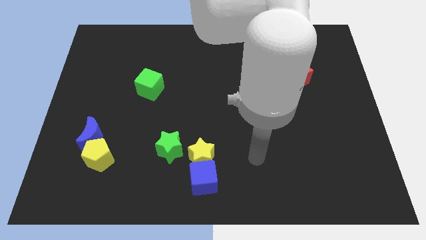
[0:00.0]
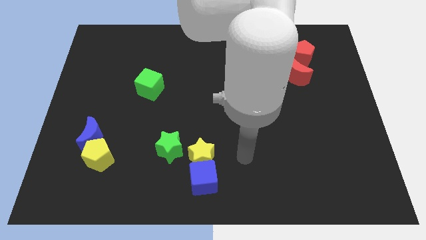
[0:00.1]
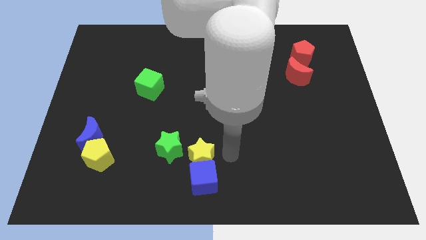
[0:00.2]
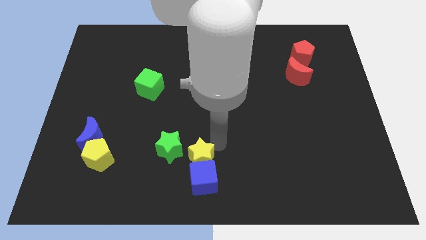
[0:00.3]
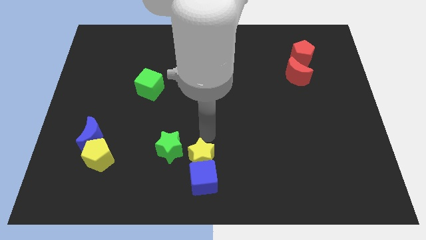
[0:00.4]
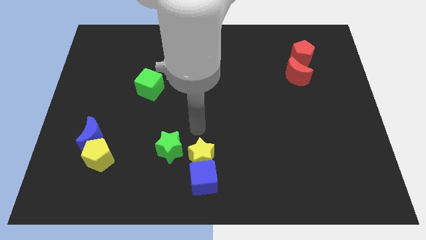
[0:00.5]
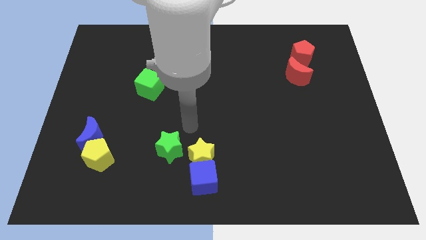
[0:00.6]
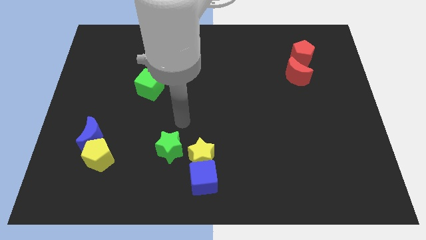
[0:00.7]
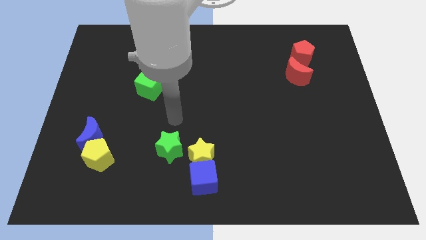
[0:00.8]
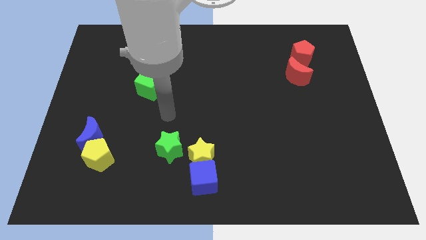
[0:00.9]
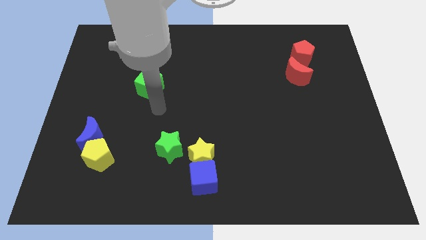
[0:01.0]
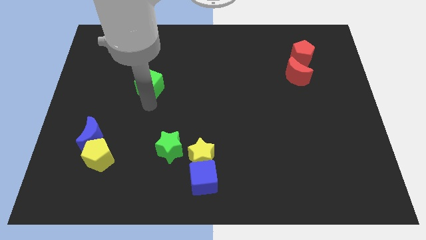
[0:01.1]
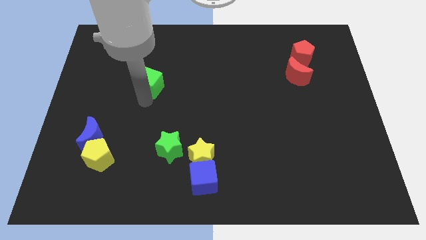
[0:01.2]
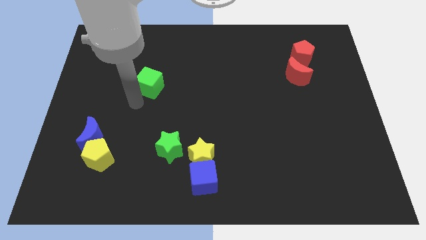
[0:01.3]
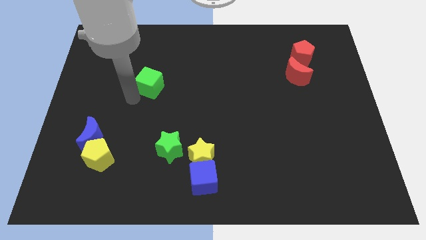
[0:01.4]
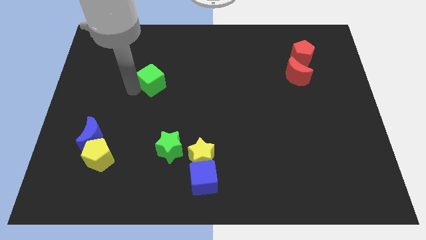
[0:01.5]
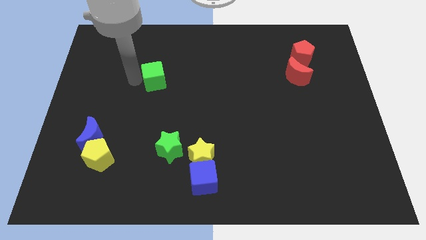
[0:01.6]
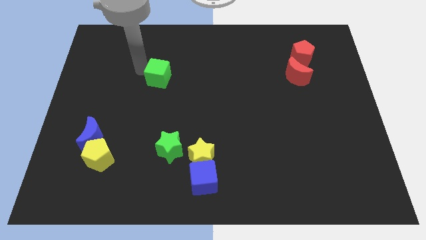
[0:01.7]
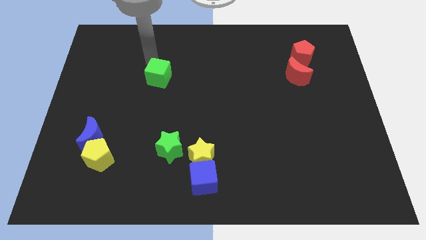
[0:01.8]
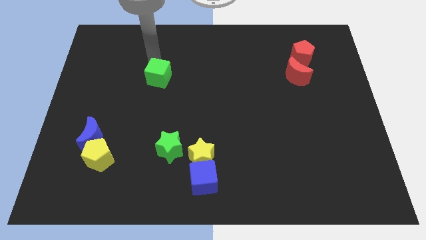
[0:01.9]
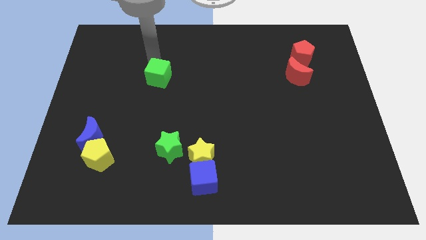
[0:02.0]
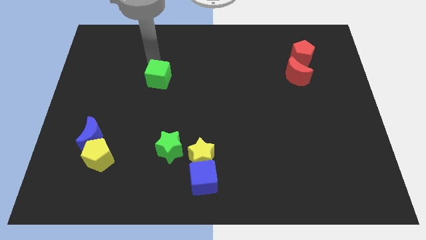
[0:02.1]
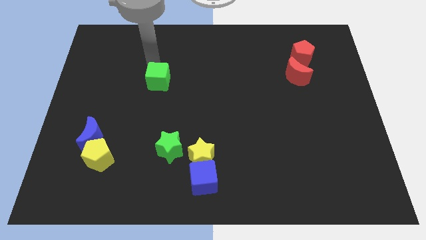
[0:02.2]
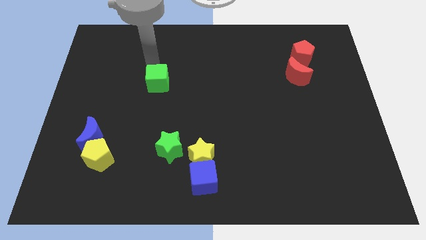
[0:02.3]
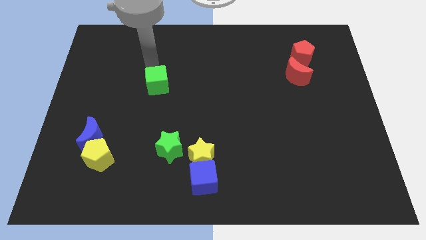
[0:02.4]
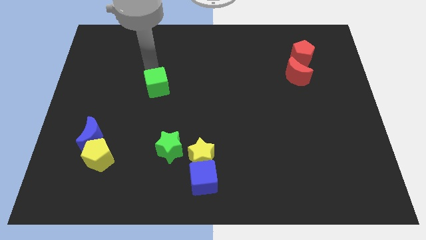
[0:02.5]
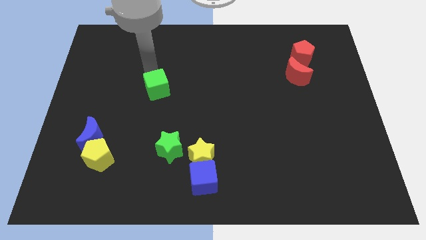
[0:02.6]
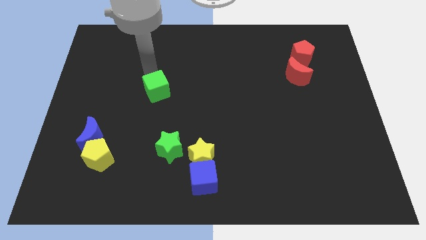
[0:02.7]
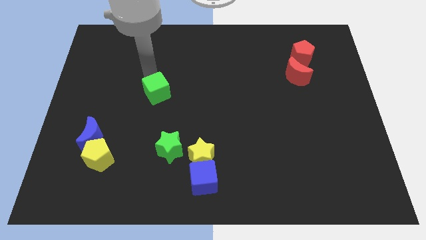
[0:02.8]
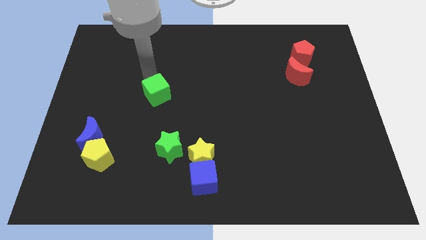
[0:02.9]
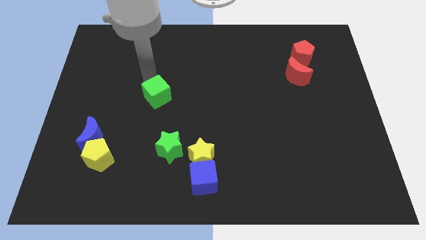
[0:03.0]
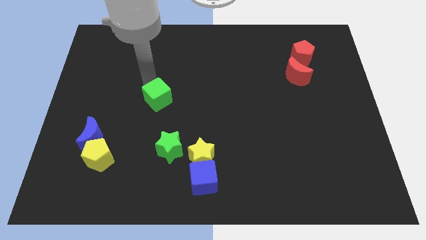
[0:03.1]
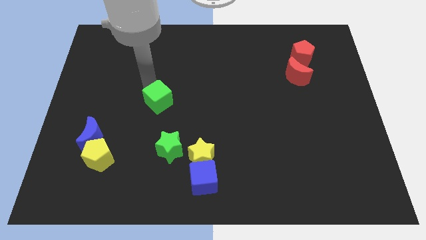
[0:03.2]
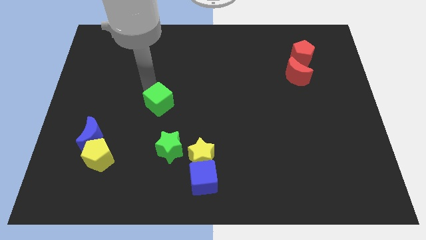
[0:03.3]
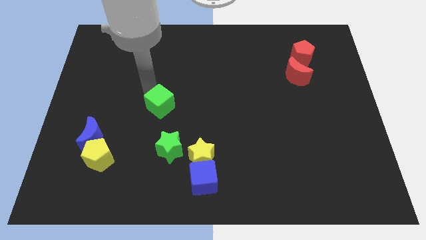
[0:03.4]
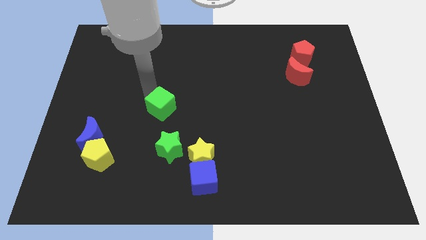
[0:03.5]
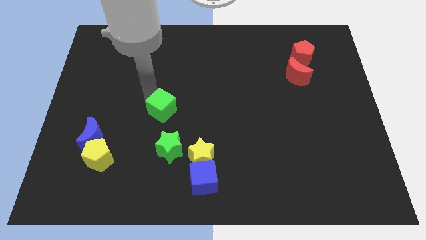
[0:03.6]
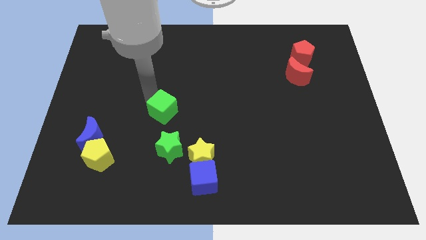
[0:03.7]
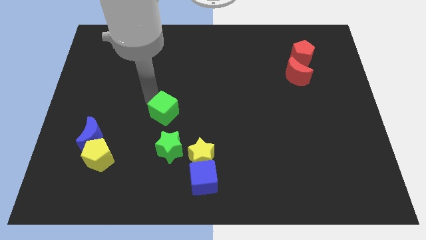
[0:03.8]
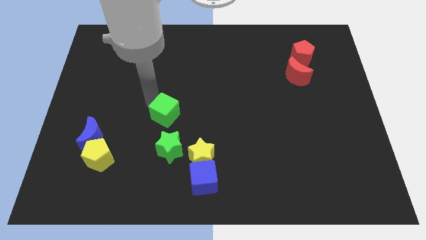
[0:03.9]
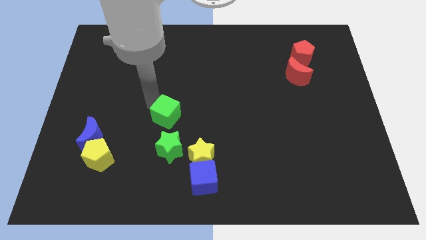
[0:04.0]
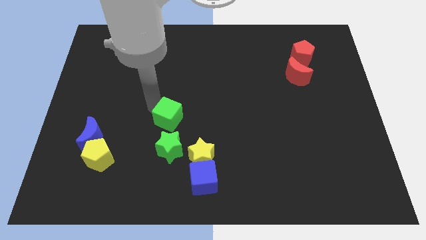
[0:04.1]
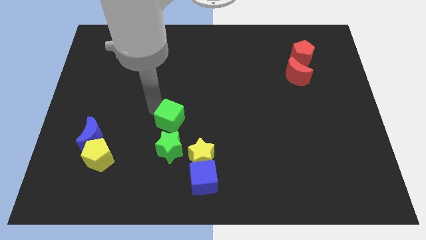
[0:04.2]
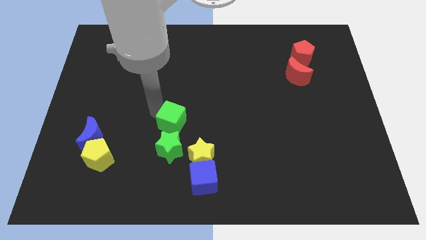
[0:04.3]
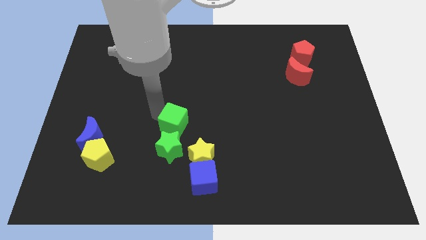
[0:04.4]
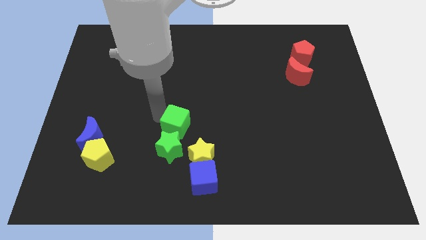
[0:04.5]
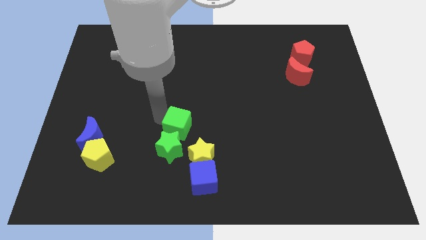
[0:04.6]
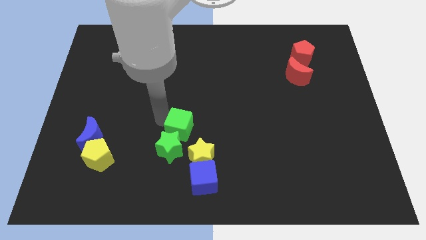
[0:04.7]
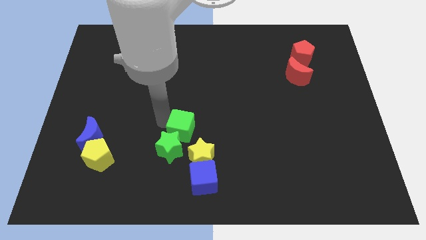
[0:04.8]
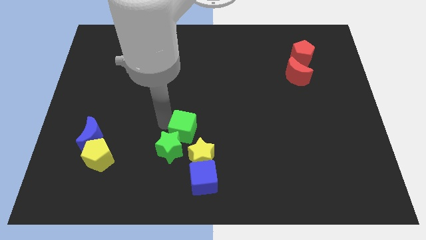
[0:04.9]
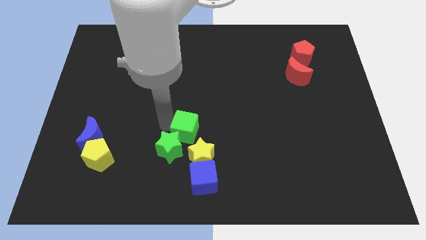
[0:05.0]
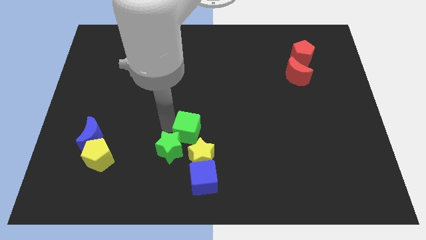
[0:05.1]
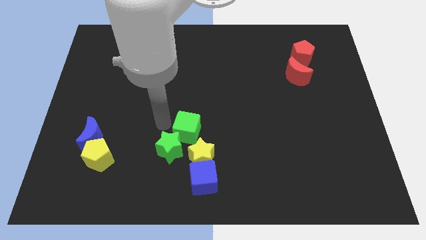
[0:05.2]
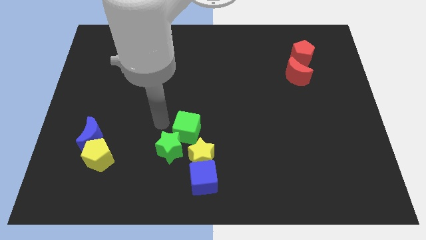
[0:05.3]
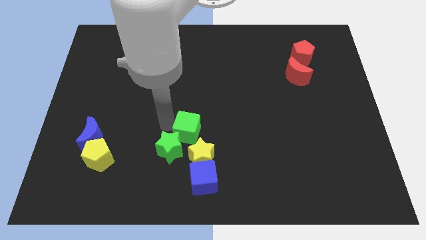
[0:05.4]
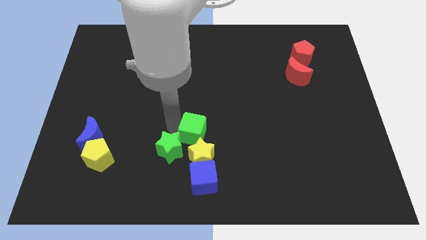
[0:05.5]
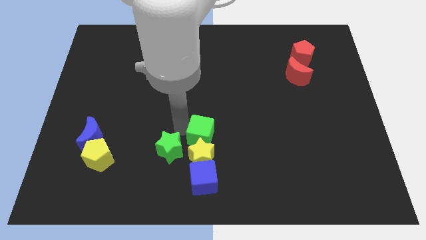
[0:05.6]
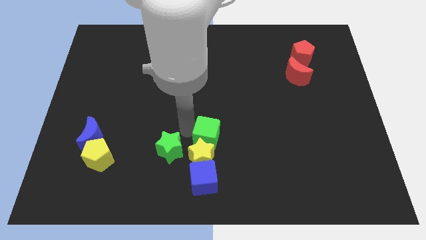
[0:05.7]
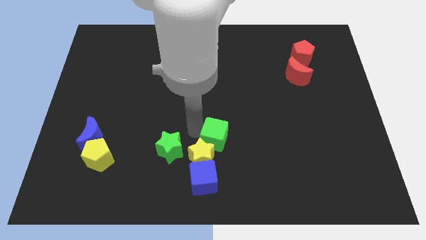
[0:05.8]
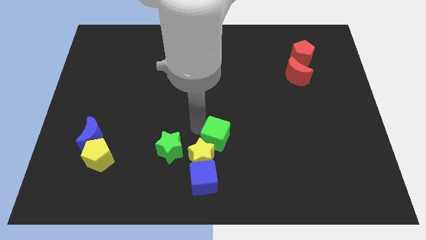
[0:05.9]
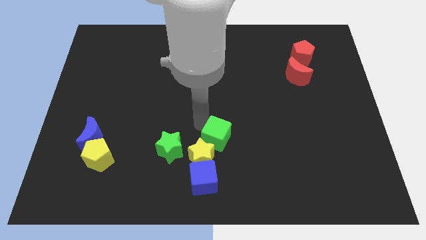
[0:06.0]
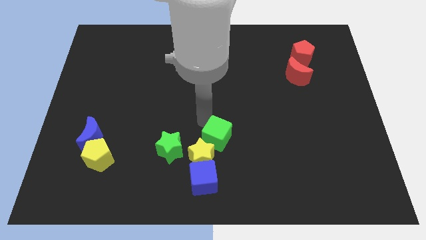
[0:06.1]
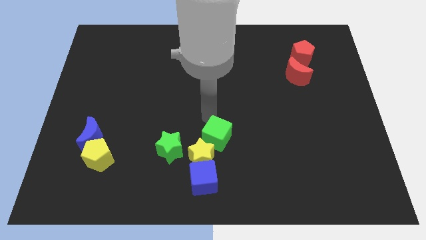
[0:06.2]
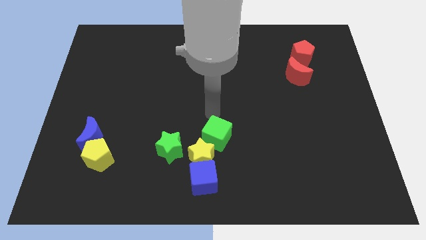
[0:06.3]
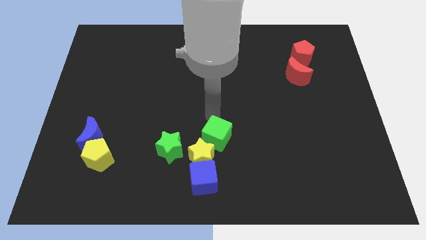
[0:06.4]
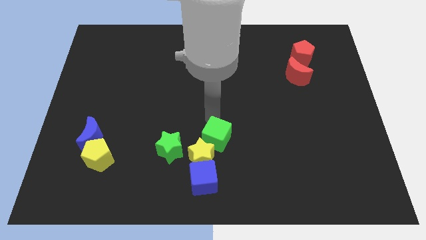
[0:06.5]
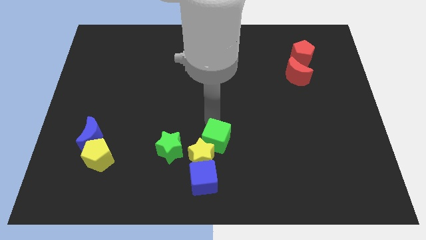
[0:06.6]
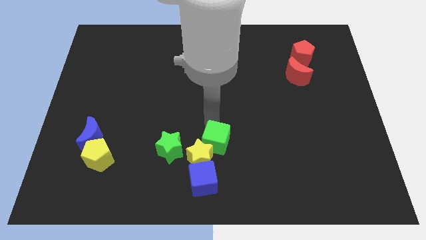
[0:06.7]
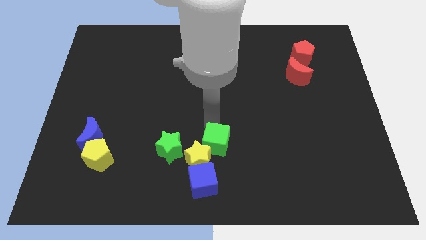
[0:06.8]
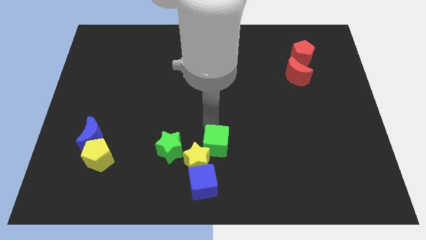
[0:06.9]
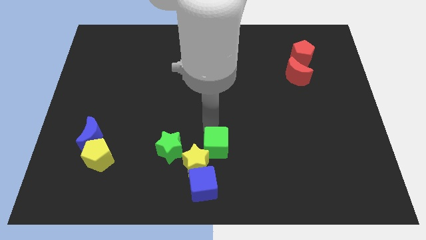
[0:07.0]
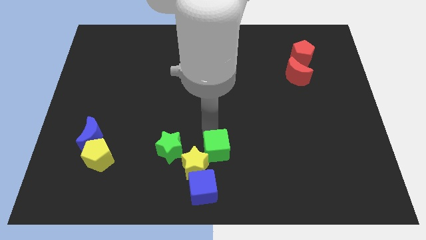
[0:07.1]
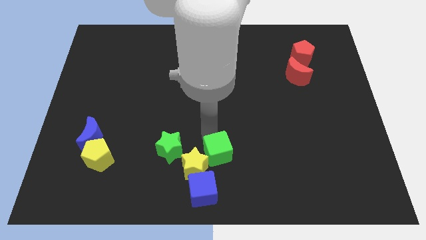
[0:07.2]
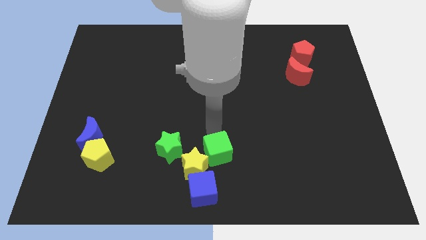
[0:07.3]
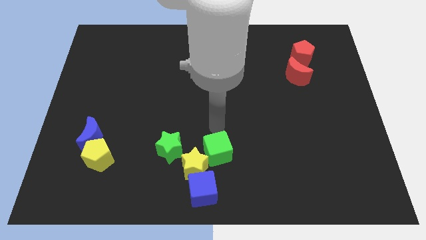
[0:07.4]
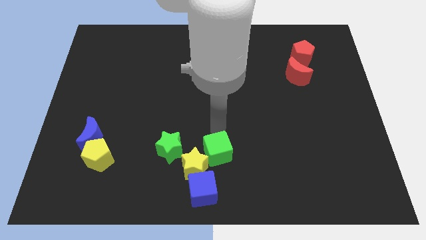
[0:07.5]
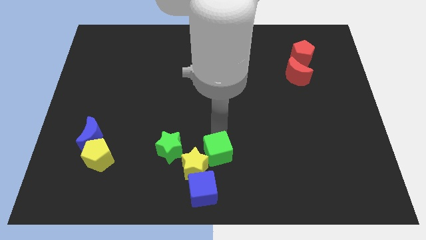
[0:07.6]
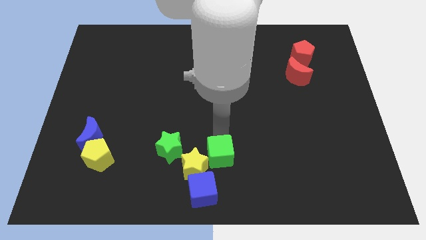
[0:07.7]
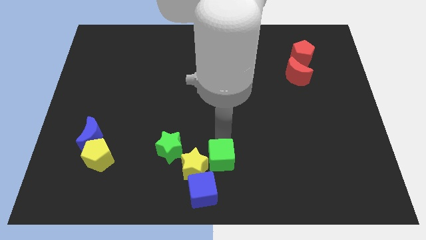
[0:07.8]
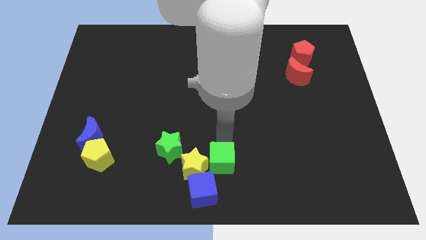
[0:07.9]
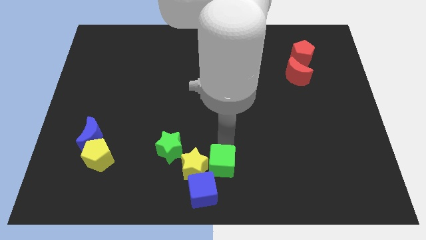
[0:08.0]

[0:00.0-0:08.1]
push the green cube diagonally down and to the right of the yellow star
